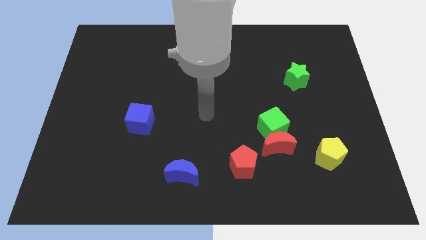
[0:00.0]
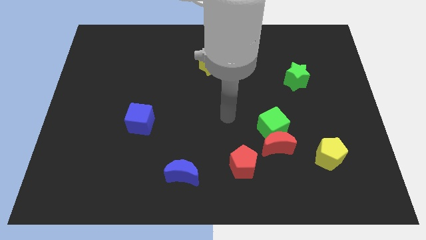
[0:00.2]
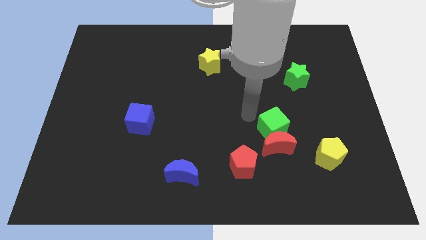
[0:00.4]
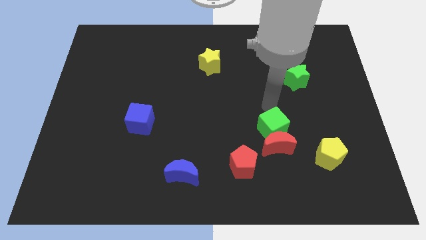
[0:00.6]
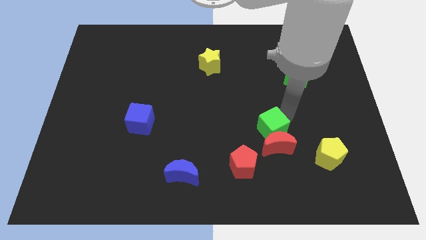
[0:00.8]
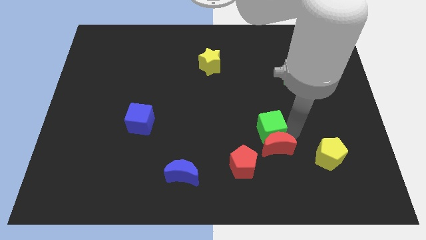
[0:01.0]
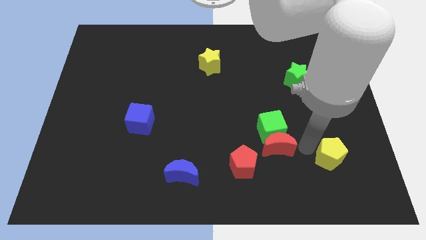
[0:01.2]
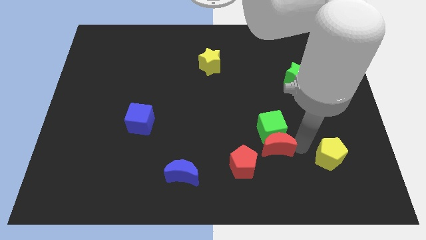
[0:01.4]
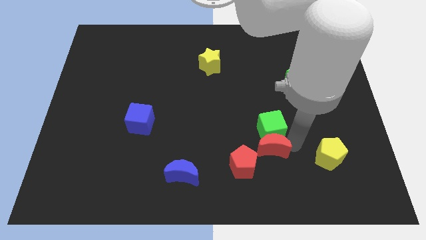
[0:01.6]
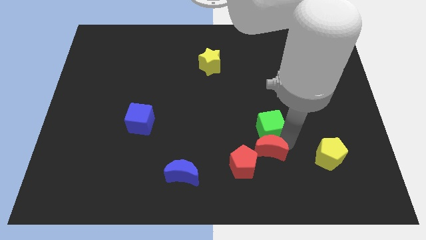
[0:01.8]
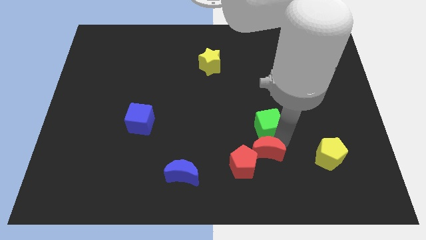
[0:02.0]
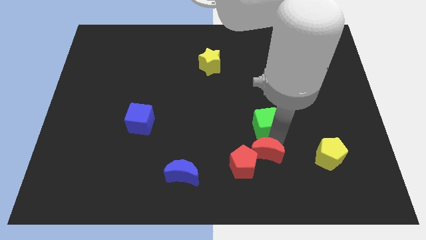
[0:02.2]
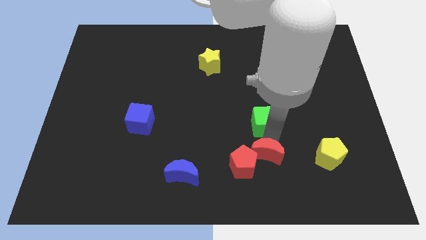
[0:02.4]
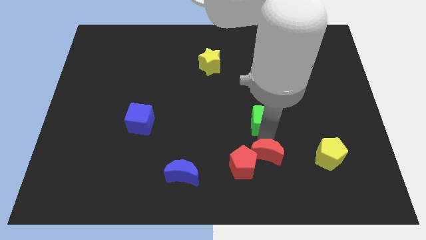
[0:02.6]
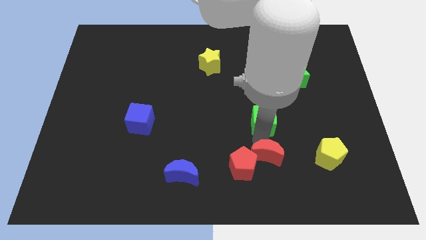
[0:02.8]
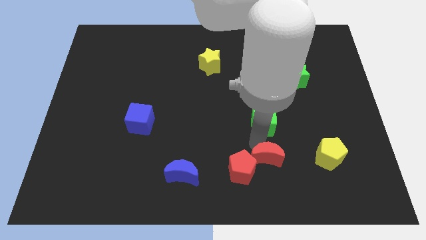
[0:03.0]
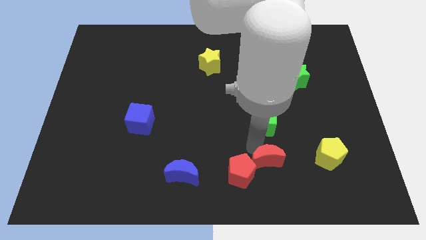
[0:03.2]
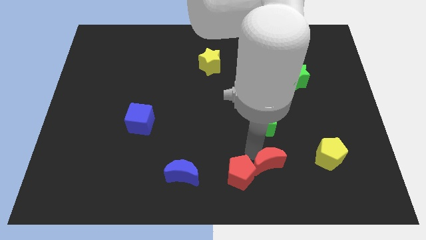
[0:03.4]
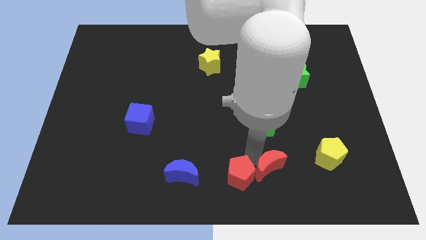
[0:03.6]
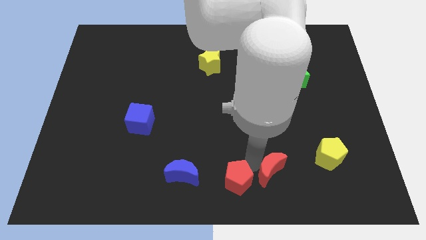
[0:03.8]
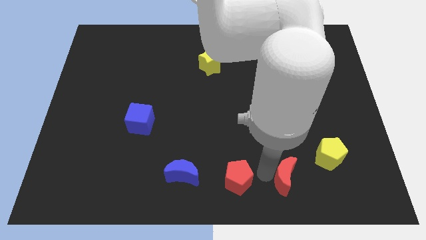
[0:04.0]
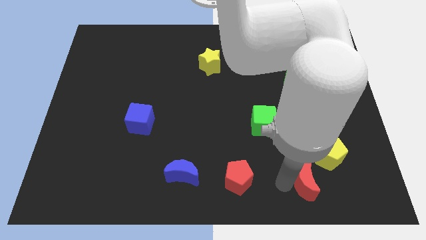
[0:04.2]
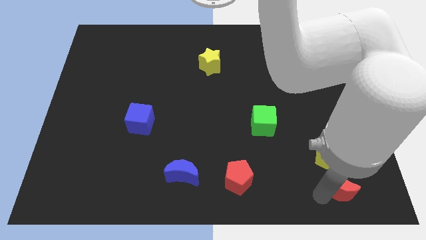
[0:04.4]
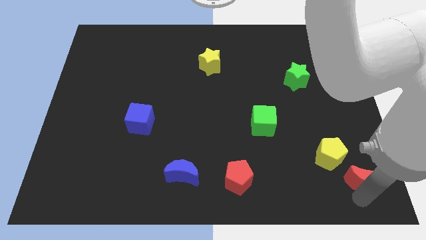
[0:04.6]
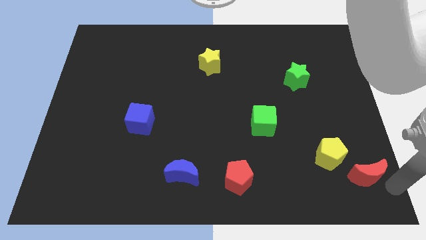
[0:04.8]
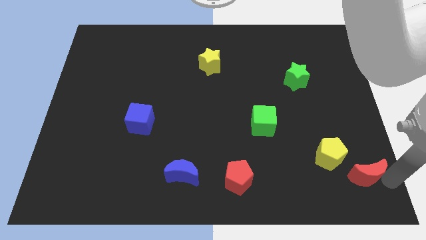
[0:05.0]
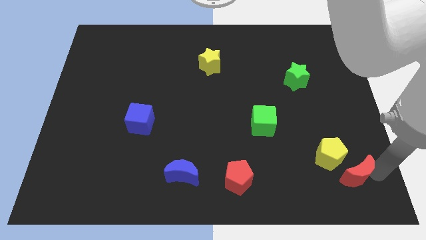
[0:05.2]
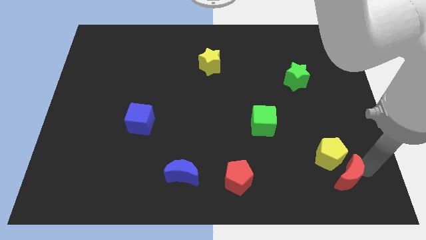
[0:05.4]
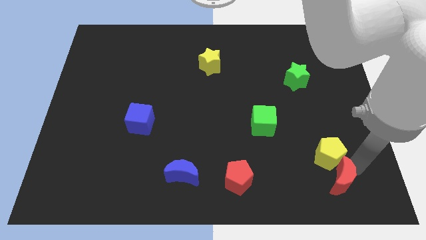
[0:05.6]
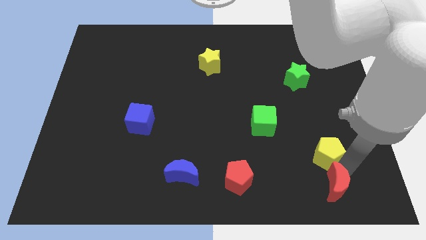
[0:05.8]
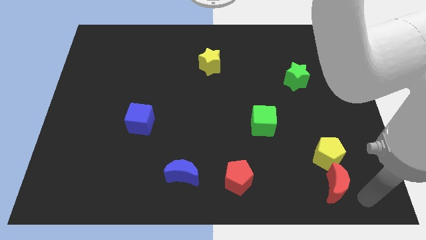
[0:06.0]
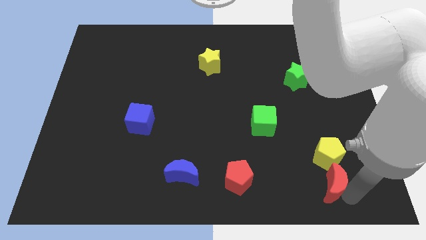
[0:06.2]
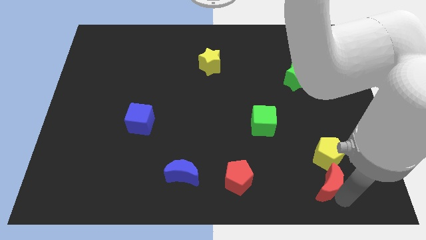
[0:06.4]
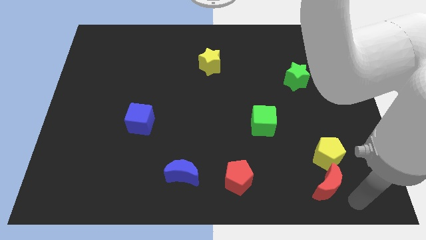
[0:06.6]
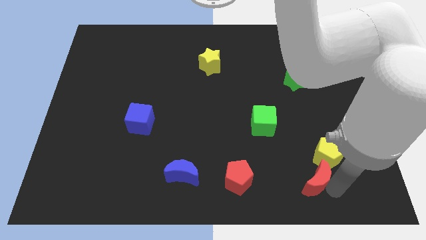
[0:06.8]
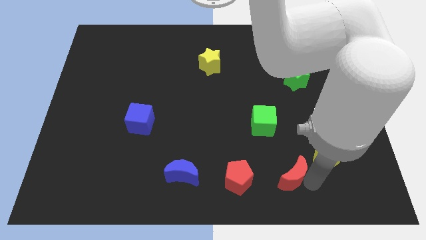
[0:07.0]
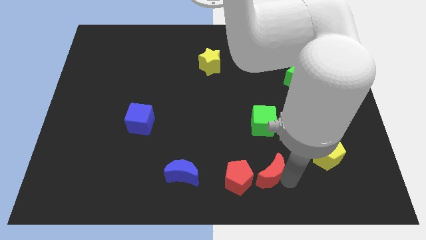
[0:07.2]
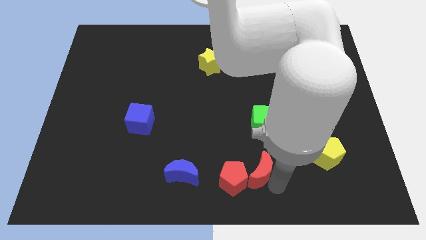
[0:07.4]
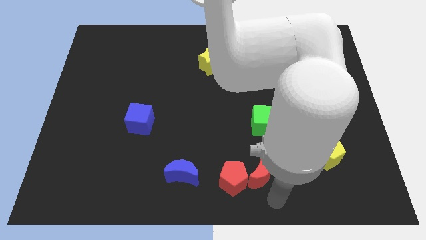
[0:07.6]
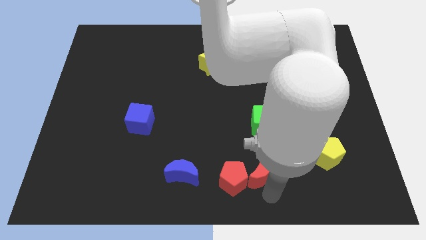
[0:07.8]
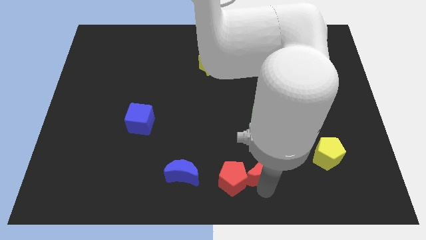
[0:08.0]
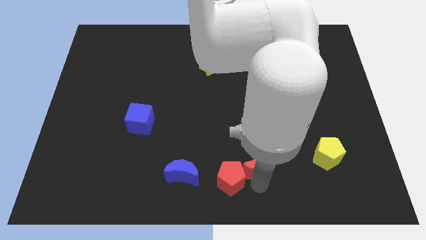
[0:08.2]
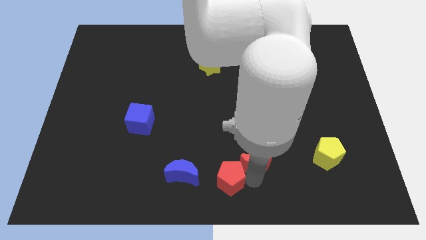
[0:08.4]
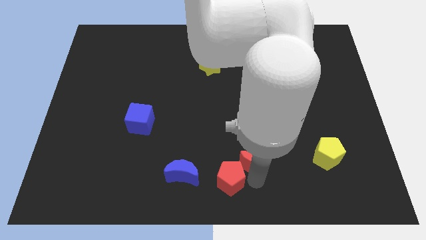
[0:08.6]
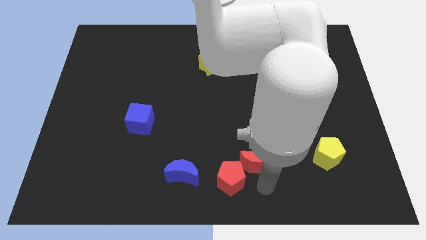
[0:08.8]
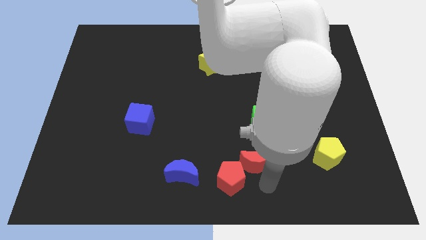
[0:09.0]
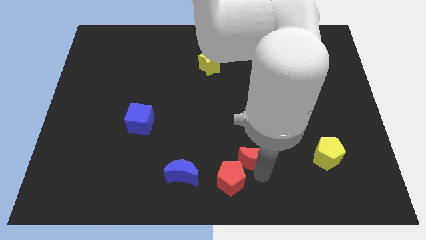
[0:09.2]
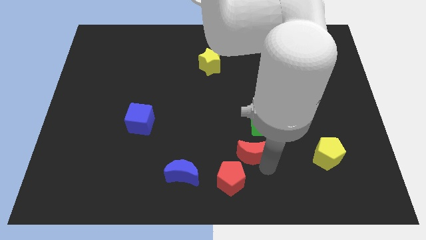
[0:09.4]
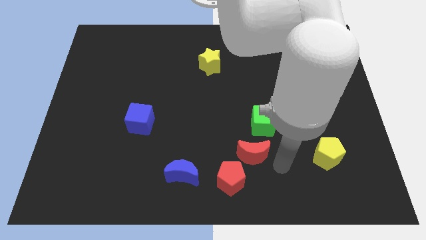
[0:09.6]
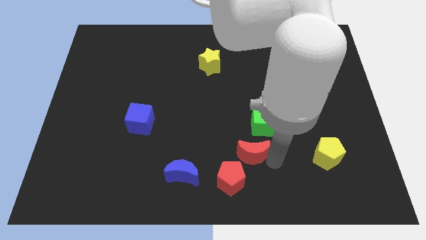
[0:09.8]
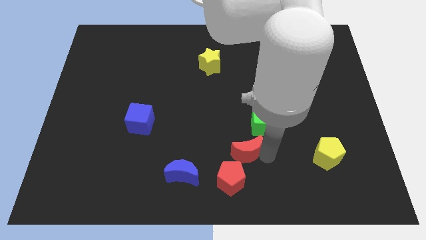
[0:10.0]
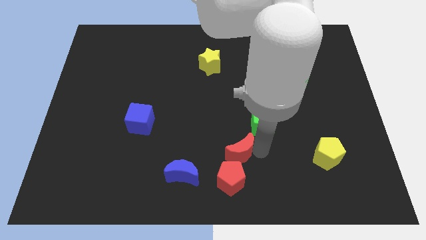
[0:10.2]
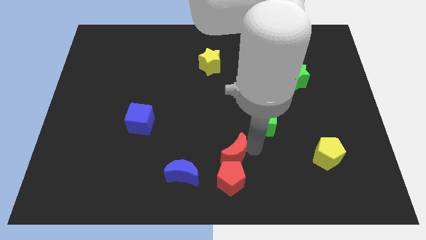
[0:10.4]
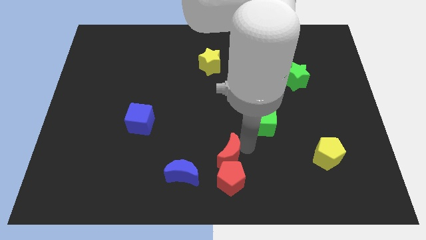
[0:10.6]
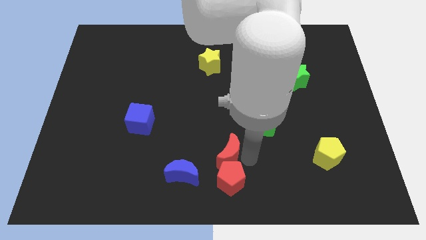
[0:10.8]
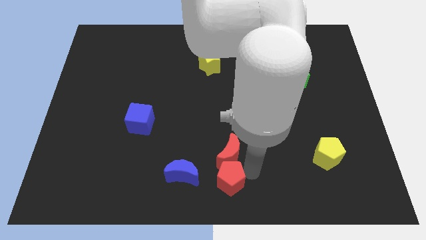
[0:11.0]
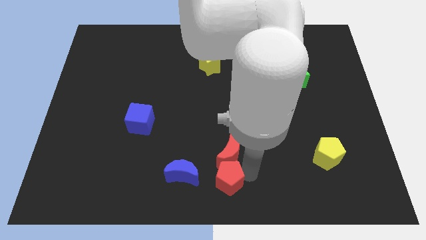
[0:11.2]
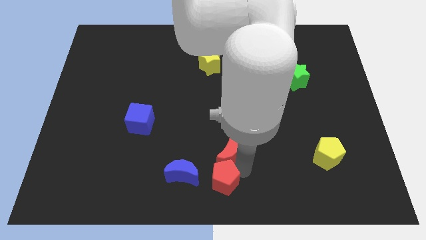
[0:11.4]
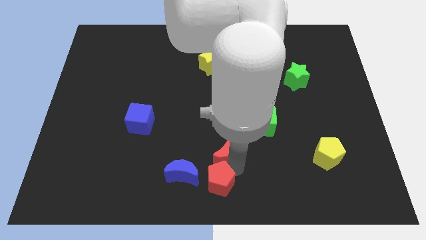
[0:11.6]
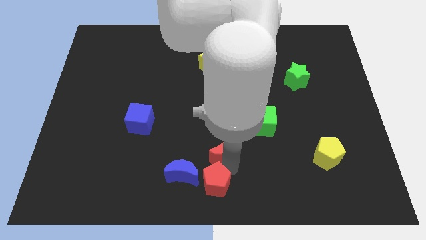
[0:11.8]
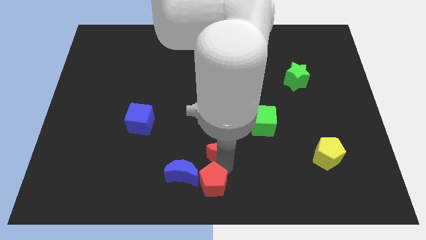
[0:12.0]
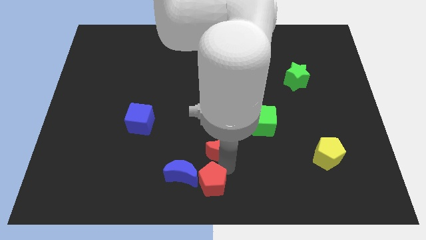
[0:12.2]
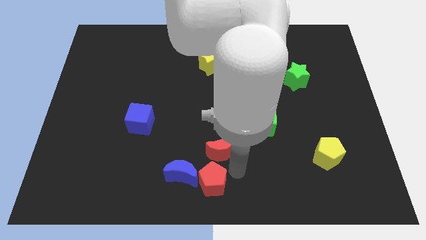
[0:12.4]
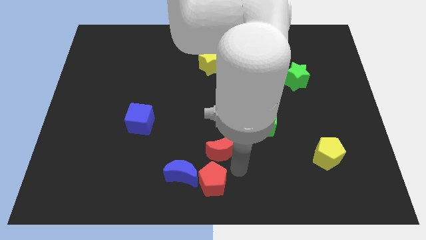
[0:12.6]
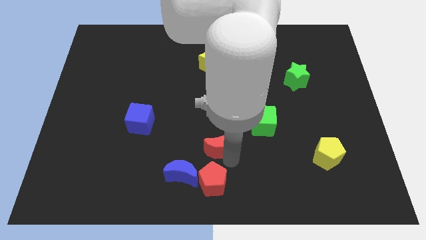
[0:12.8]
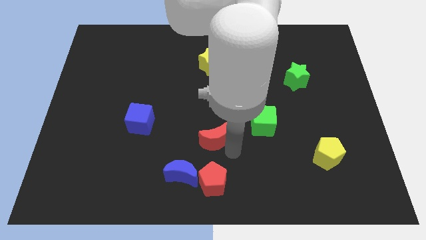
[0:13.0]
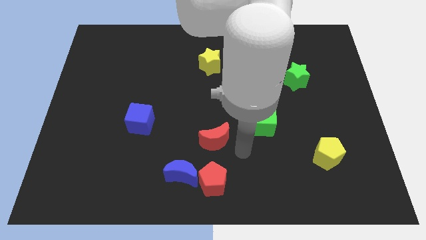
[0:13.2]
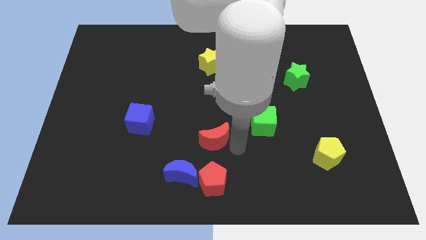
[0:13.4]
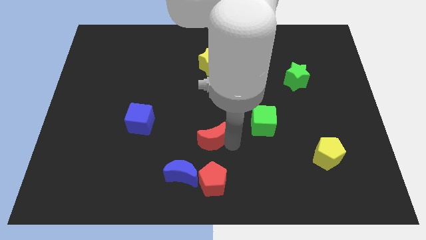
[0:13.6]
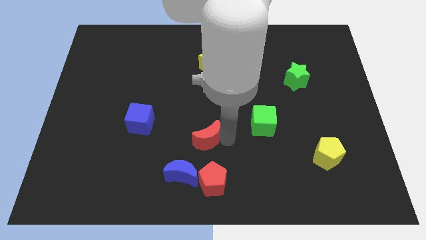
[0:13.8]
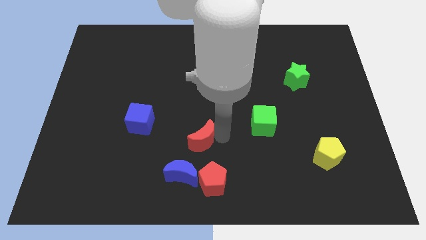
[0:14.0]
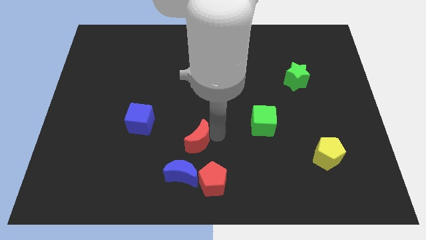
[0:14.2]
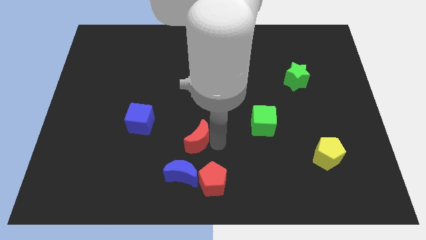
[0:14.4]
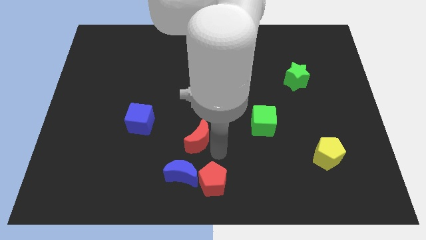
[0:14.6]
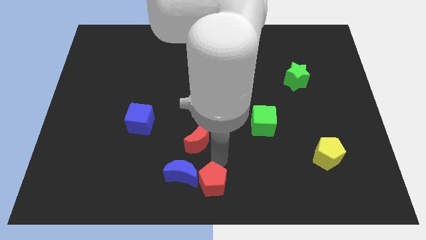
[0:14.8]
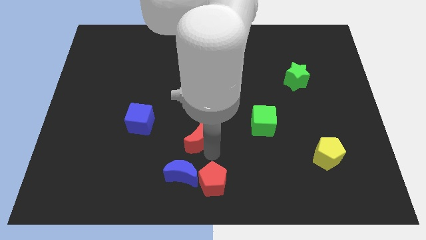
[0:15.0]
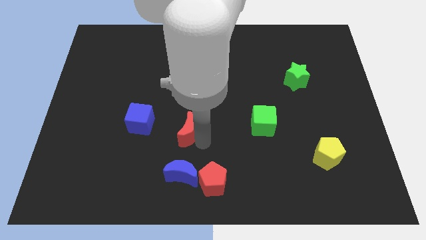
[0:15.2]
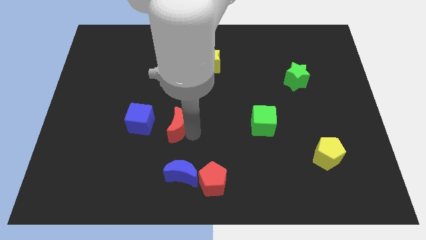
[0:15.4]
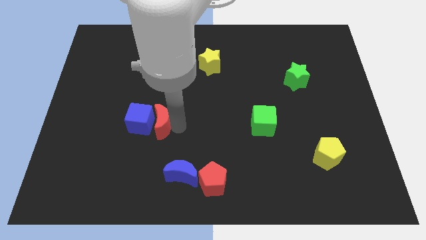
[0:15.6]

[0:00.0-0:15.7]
put the red moon to the blue cube

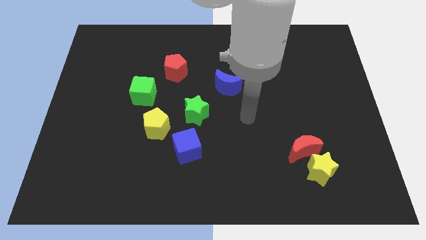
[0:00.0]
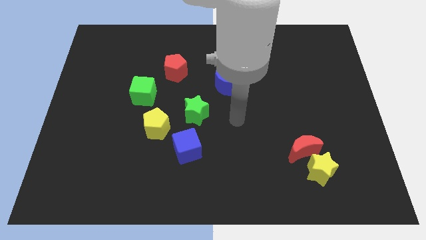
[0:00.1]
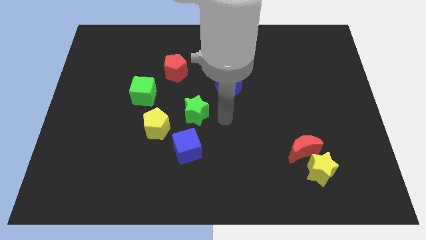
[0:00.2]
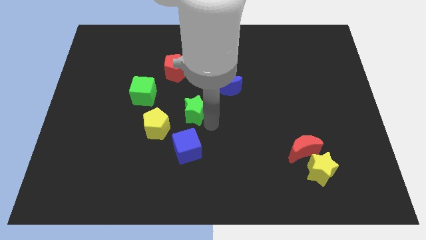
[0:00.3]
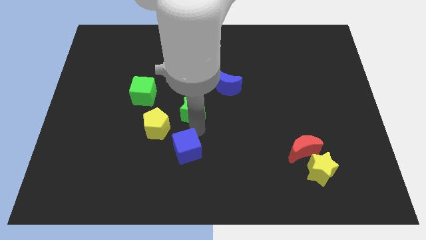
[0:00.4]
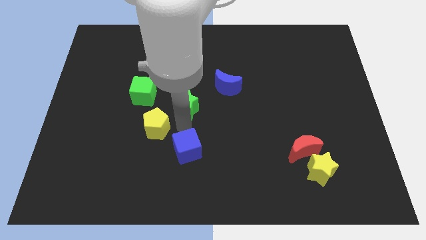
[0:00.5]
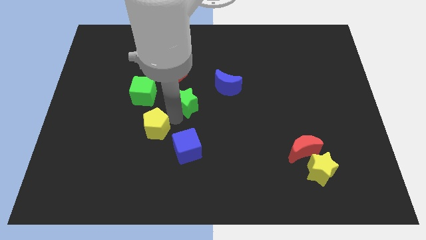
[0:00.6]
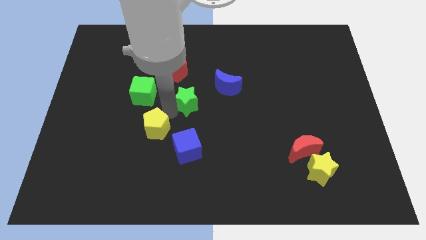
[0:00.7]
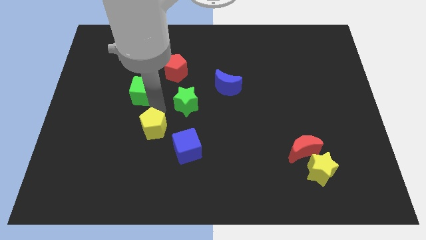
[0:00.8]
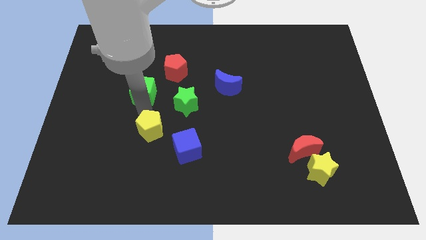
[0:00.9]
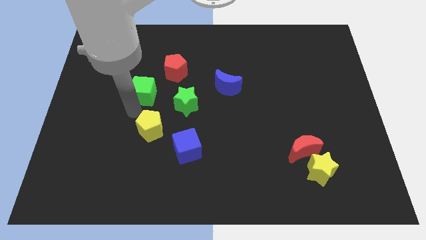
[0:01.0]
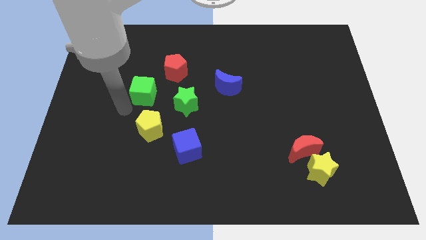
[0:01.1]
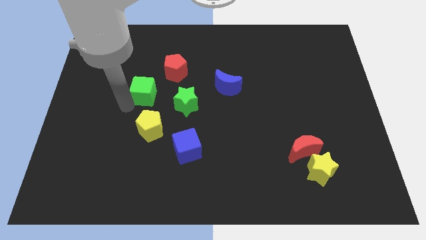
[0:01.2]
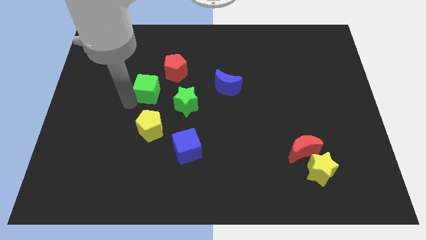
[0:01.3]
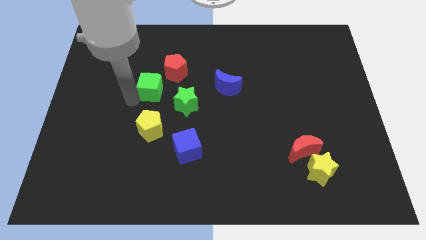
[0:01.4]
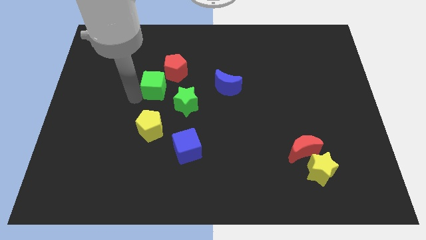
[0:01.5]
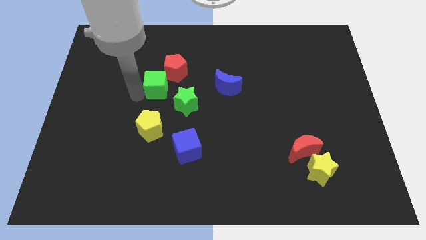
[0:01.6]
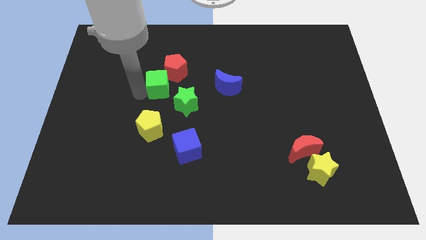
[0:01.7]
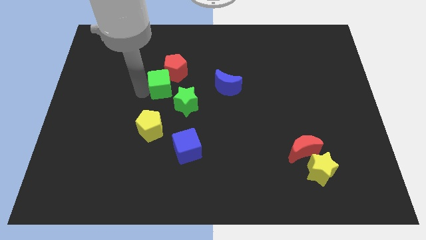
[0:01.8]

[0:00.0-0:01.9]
slide the green cube next to the red pentagon
